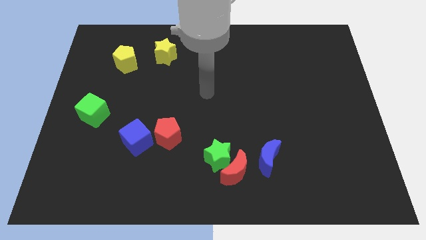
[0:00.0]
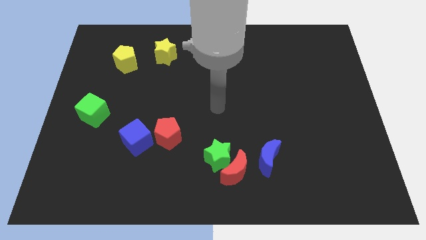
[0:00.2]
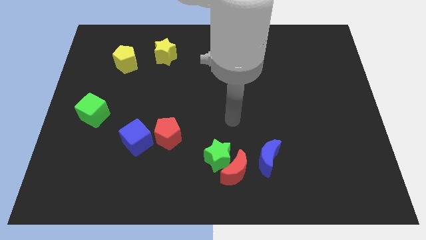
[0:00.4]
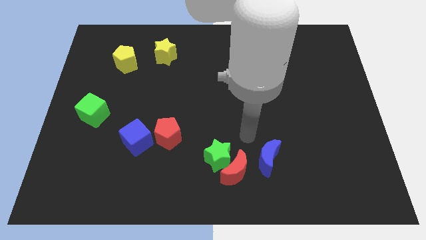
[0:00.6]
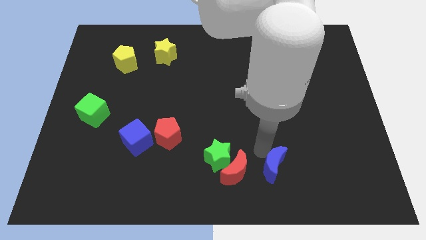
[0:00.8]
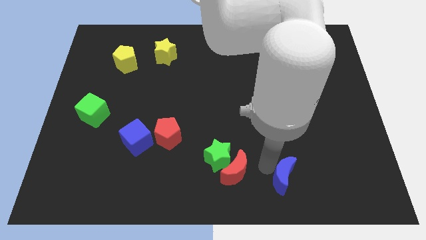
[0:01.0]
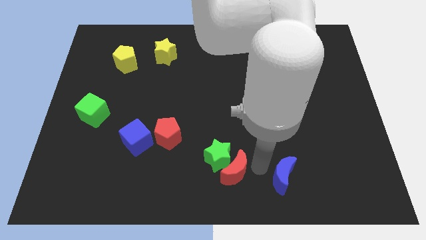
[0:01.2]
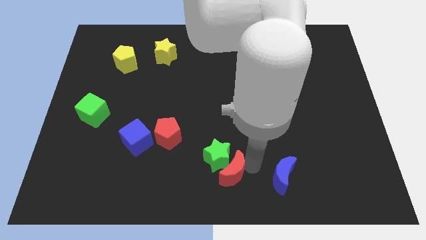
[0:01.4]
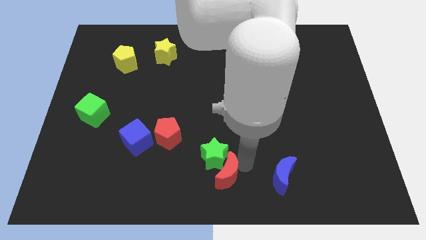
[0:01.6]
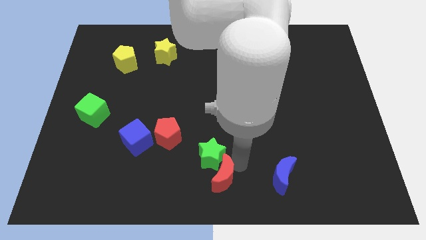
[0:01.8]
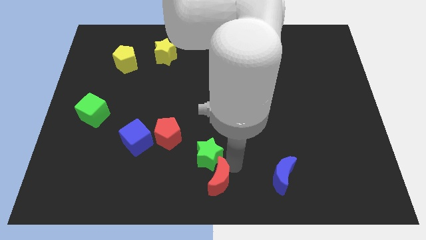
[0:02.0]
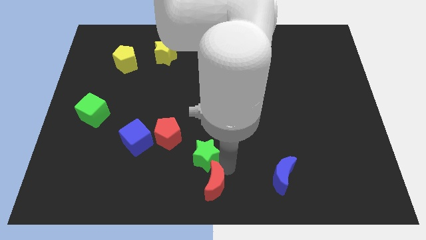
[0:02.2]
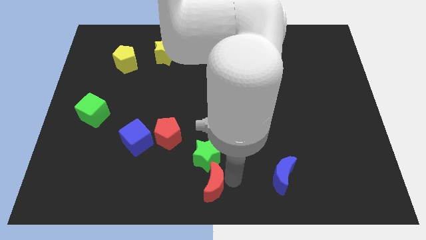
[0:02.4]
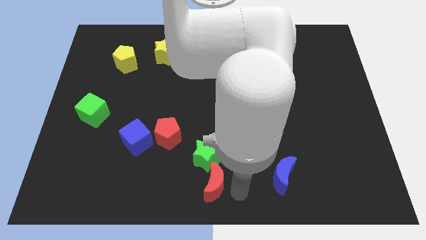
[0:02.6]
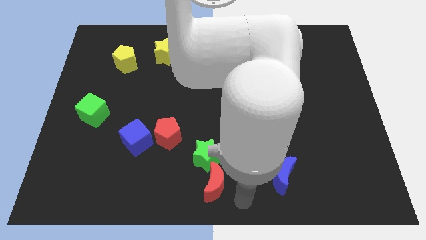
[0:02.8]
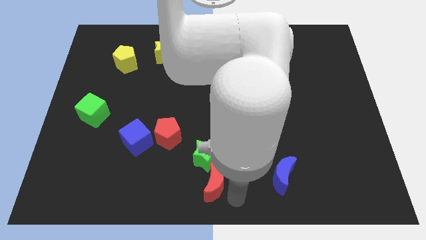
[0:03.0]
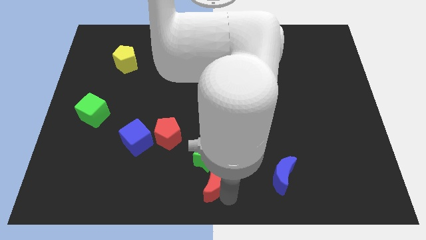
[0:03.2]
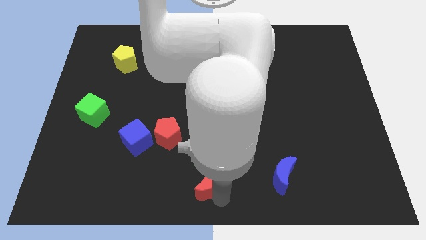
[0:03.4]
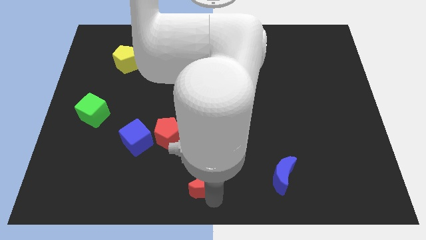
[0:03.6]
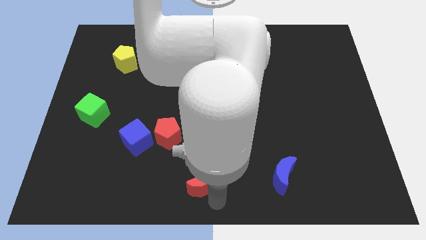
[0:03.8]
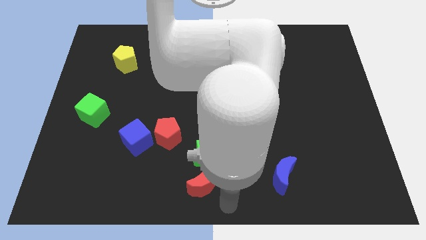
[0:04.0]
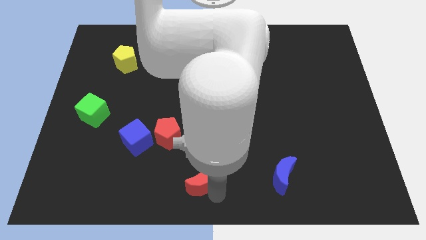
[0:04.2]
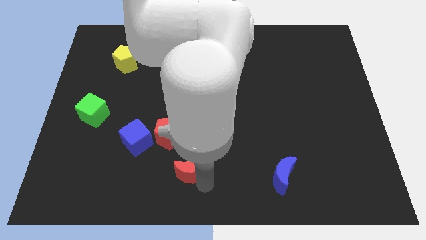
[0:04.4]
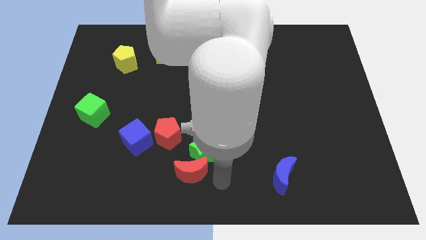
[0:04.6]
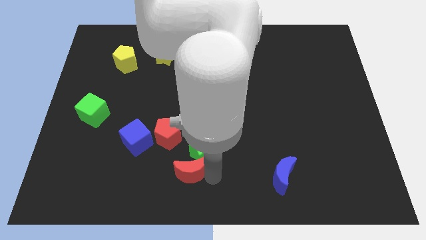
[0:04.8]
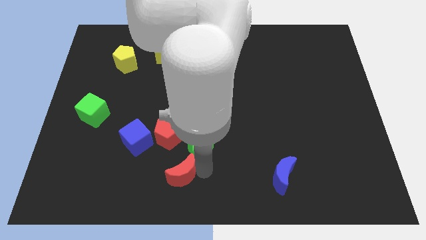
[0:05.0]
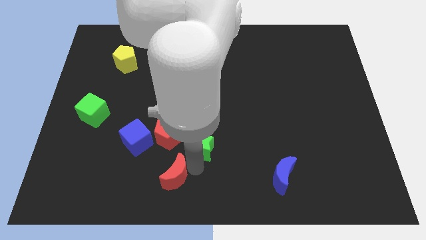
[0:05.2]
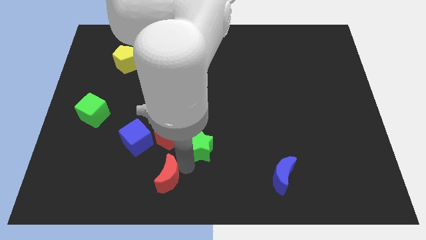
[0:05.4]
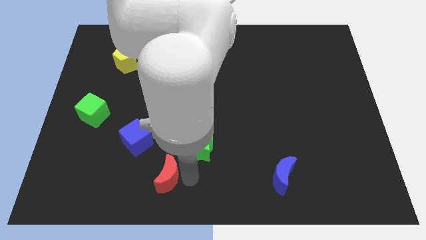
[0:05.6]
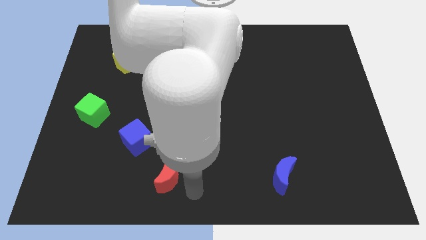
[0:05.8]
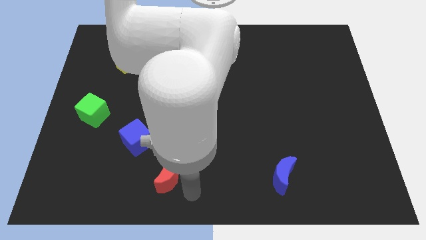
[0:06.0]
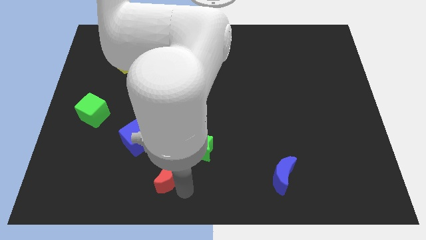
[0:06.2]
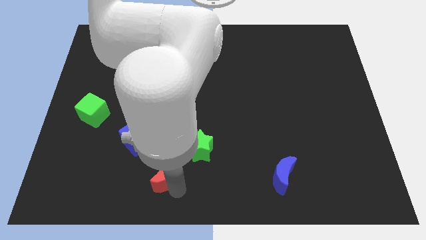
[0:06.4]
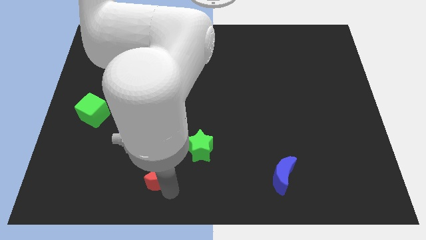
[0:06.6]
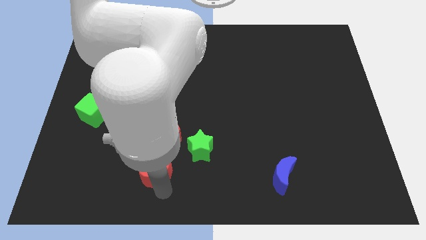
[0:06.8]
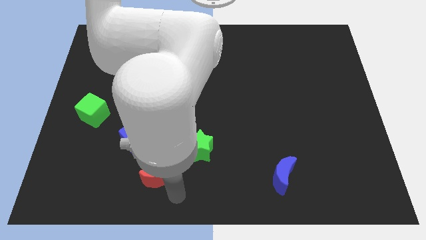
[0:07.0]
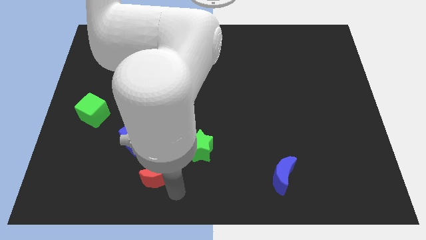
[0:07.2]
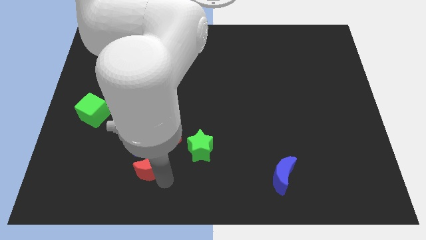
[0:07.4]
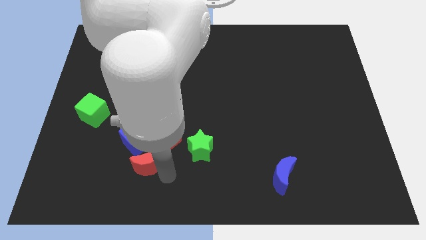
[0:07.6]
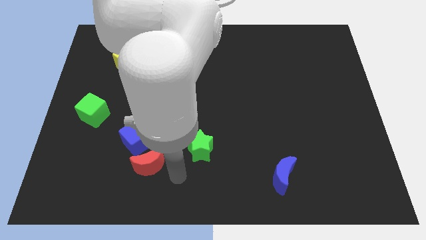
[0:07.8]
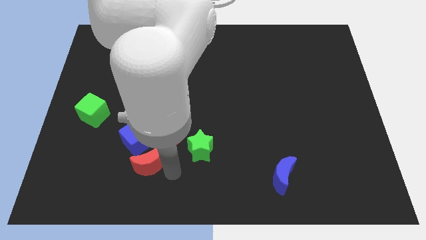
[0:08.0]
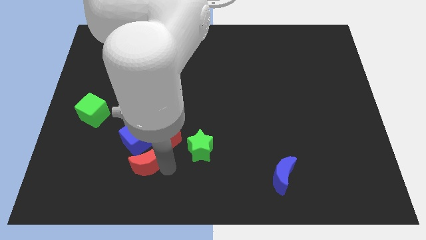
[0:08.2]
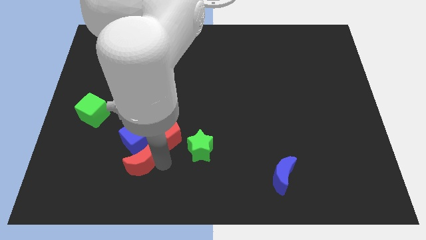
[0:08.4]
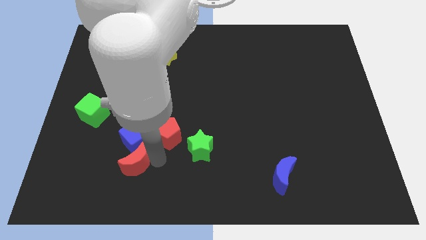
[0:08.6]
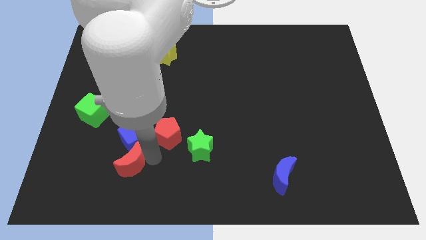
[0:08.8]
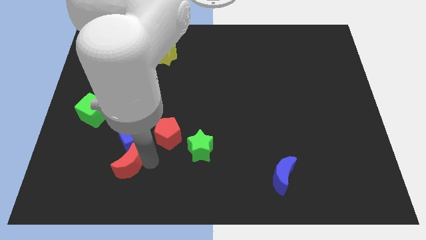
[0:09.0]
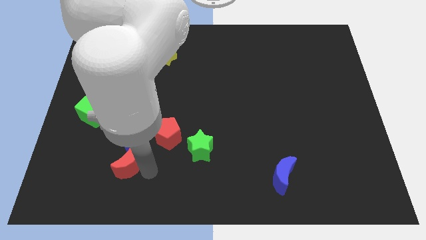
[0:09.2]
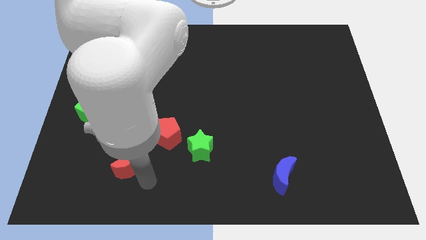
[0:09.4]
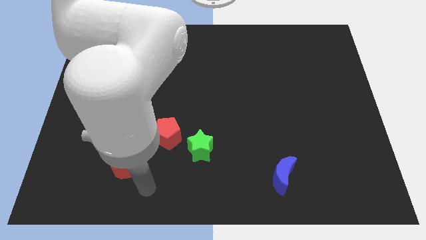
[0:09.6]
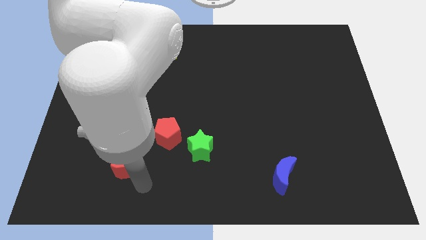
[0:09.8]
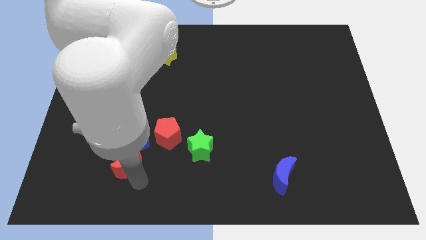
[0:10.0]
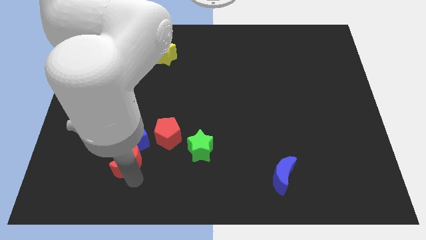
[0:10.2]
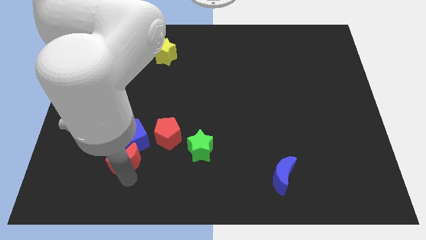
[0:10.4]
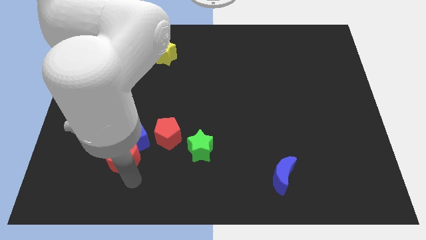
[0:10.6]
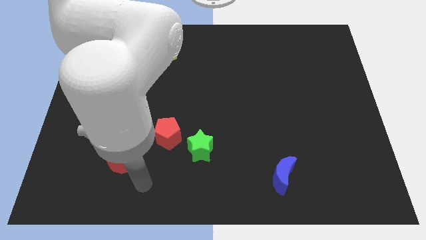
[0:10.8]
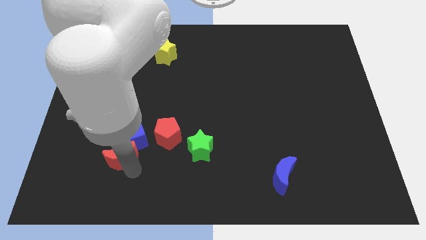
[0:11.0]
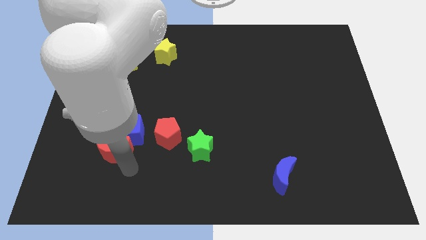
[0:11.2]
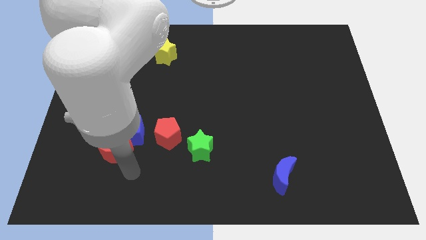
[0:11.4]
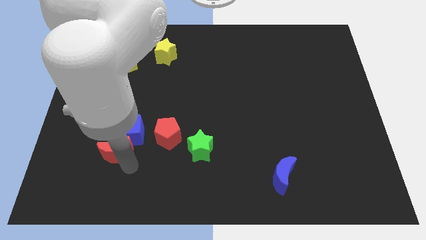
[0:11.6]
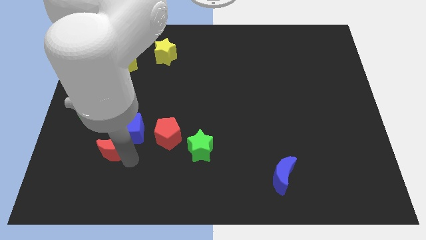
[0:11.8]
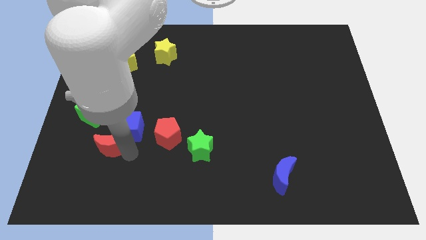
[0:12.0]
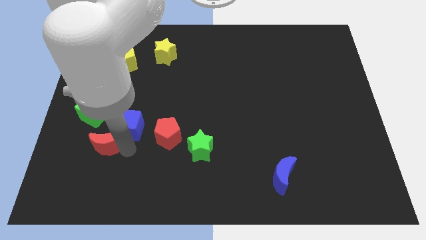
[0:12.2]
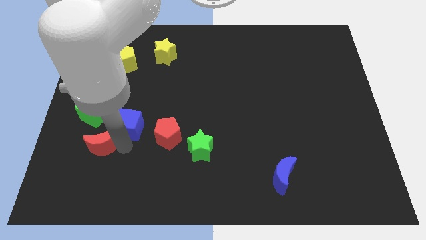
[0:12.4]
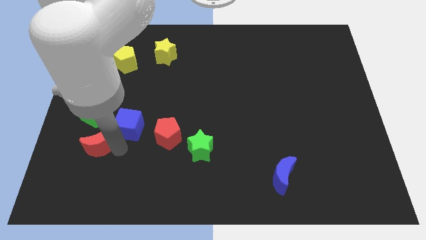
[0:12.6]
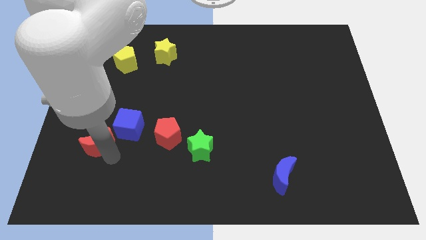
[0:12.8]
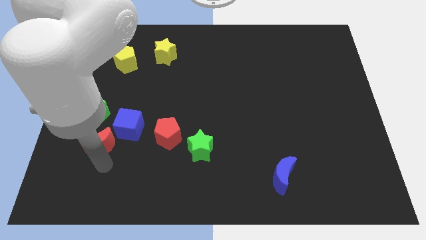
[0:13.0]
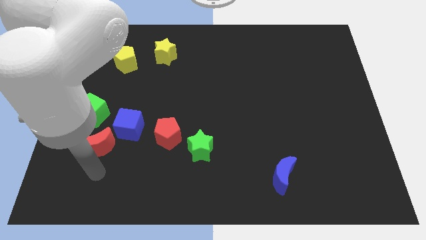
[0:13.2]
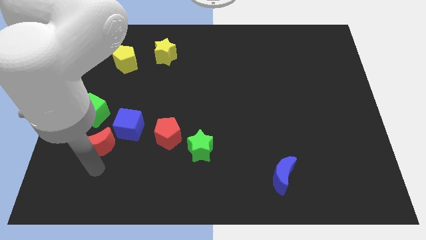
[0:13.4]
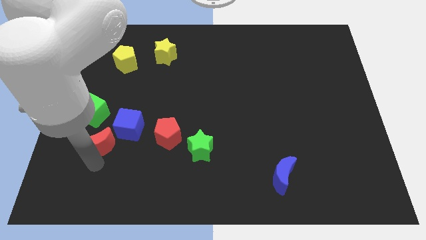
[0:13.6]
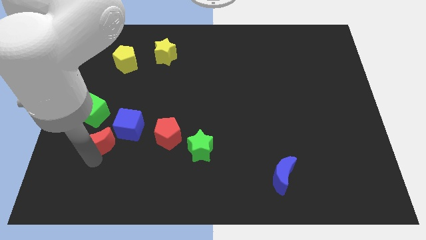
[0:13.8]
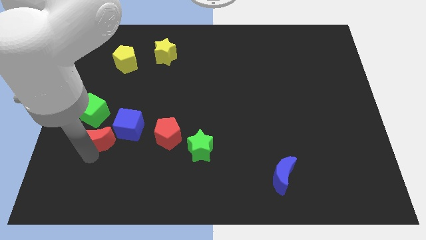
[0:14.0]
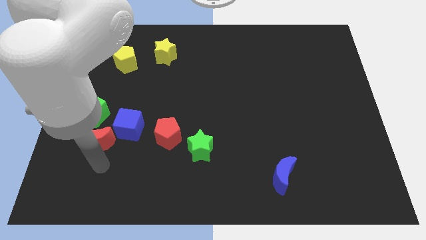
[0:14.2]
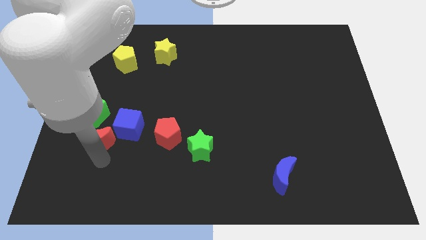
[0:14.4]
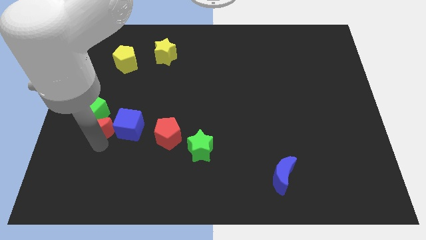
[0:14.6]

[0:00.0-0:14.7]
push the red moon towards the green cube

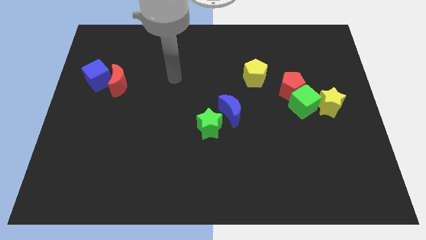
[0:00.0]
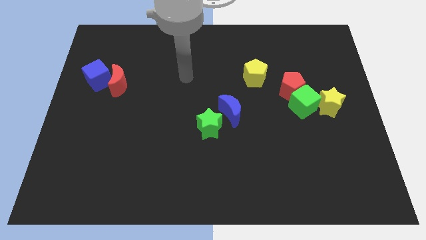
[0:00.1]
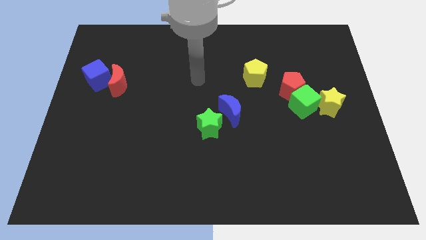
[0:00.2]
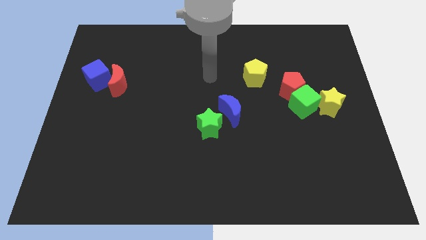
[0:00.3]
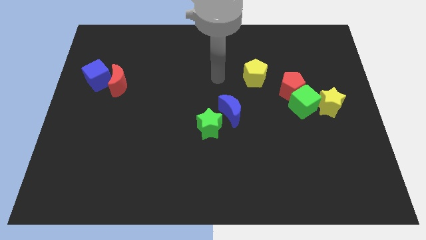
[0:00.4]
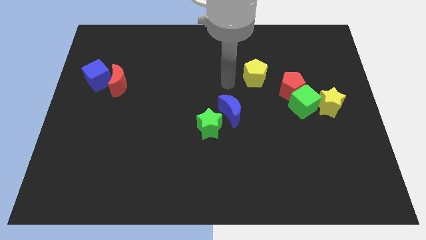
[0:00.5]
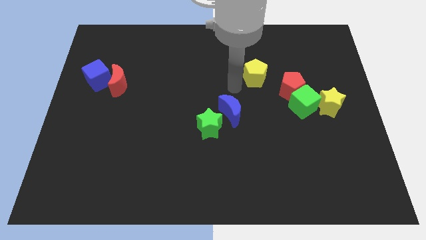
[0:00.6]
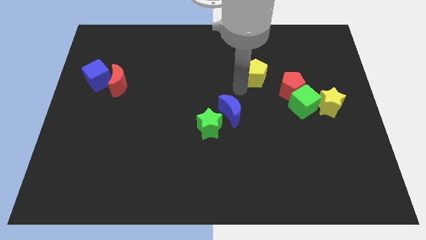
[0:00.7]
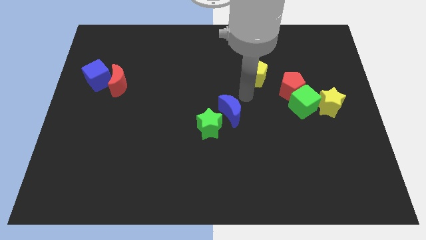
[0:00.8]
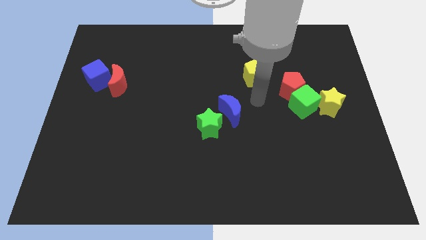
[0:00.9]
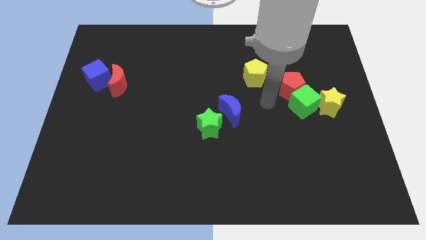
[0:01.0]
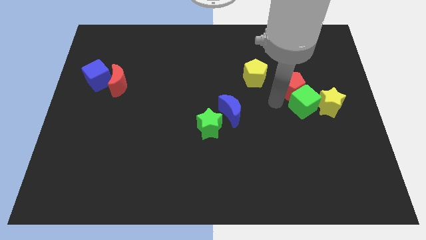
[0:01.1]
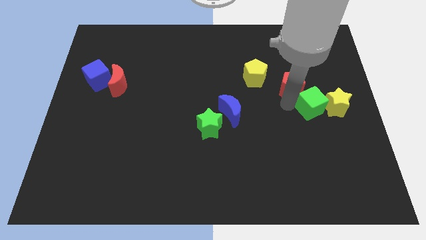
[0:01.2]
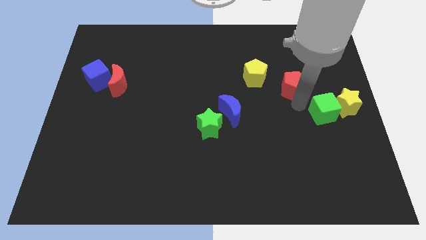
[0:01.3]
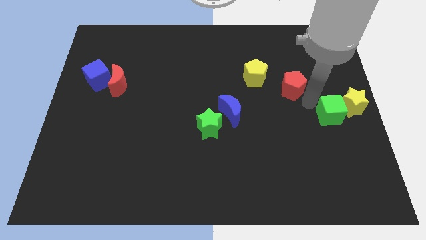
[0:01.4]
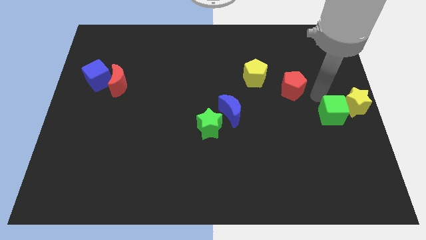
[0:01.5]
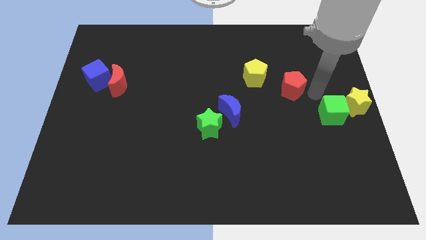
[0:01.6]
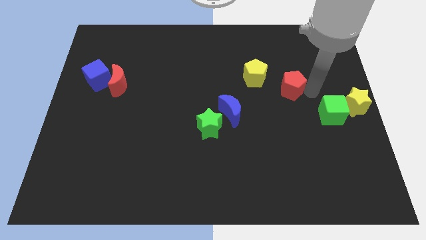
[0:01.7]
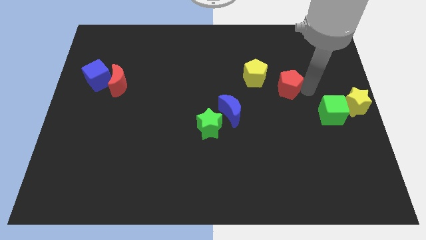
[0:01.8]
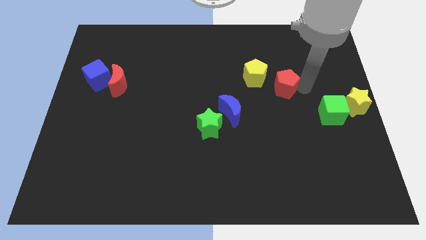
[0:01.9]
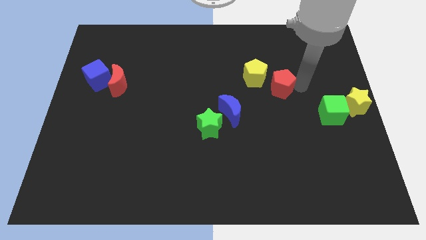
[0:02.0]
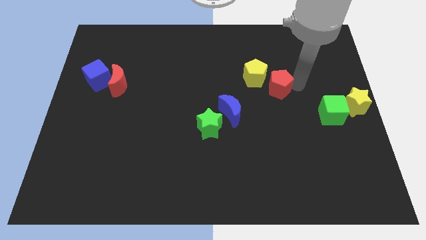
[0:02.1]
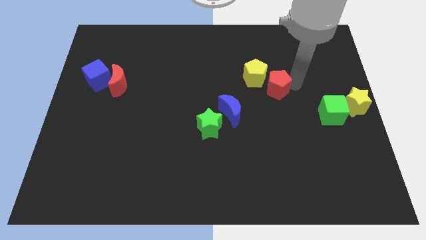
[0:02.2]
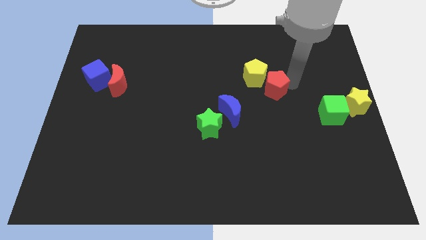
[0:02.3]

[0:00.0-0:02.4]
slide the red pentagon close to the yellow pentagon
